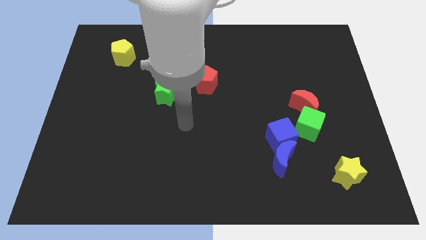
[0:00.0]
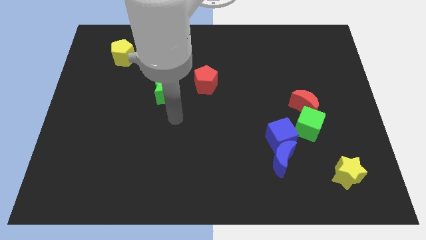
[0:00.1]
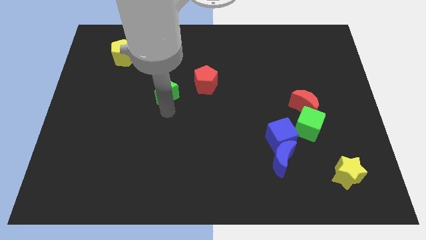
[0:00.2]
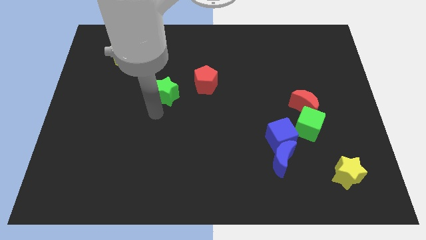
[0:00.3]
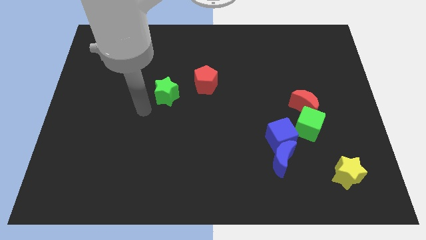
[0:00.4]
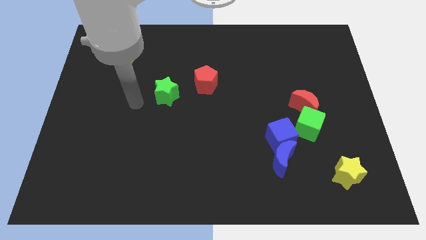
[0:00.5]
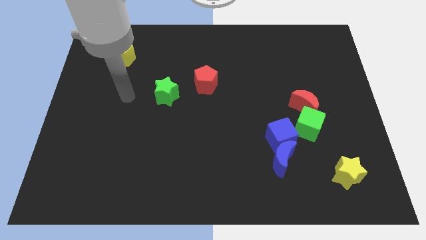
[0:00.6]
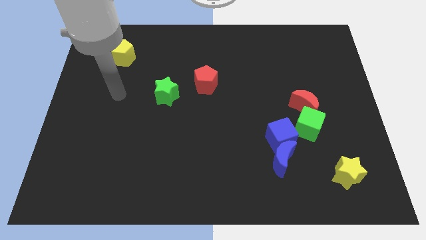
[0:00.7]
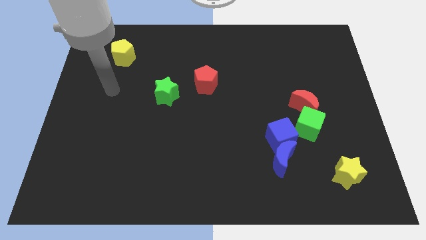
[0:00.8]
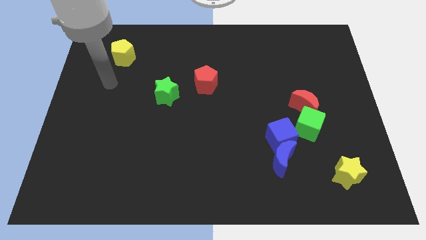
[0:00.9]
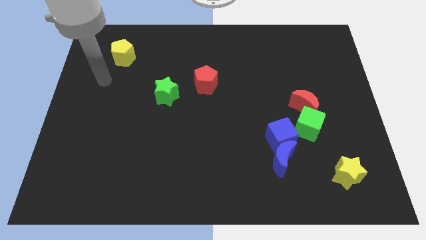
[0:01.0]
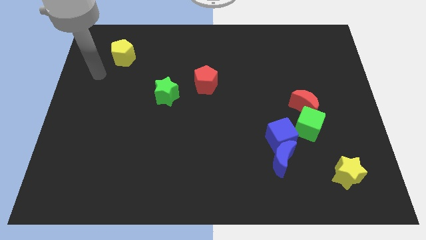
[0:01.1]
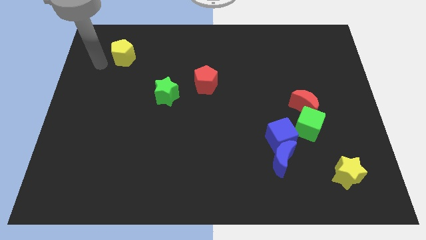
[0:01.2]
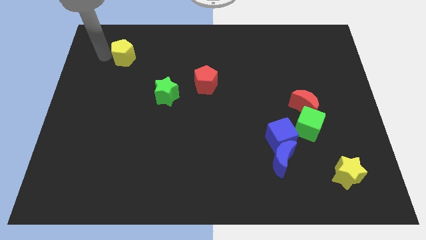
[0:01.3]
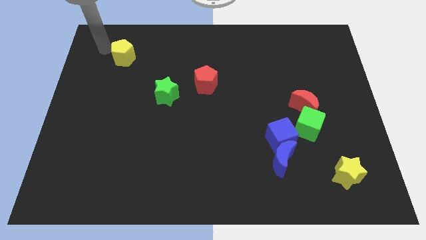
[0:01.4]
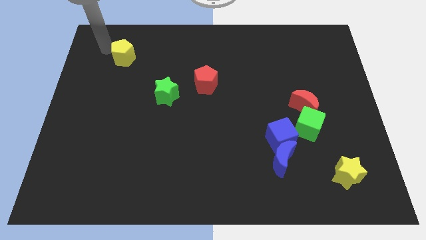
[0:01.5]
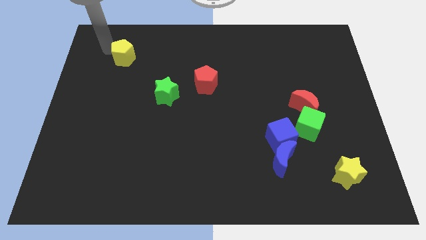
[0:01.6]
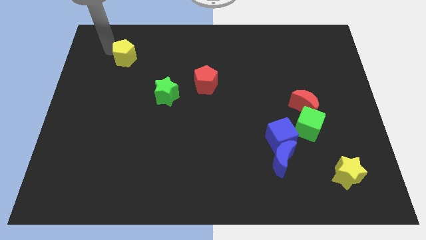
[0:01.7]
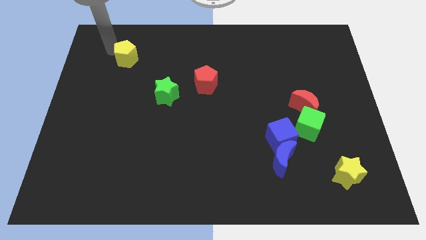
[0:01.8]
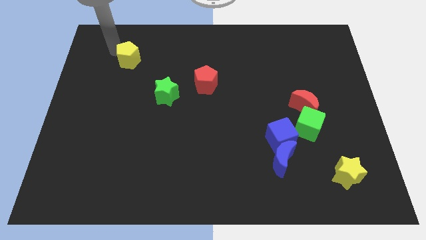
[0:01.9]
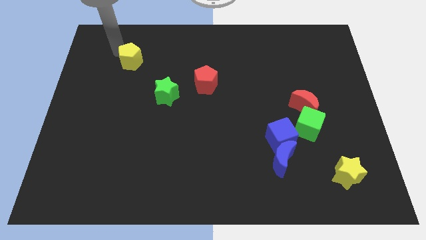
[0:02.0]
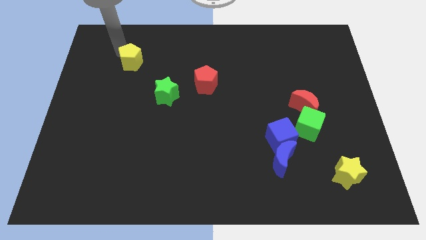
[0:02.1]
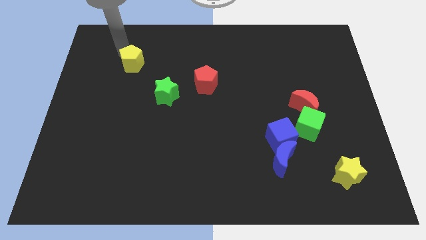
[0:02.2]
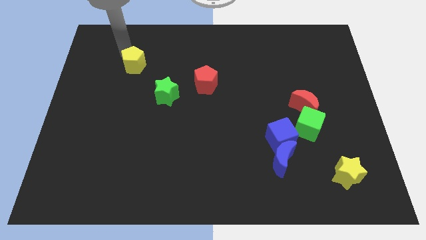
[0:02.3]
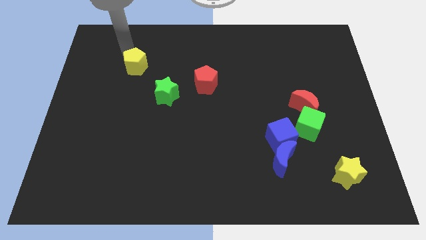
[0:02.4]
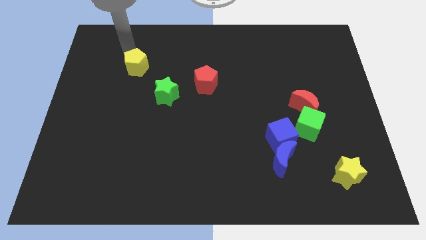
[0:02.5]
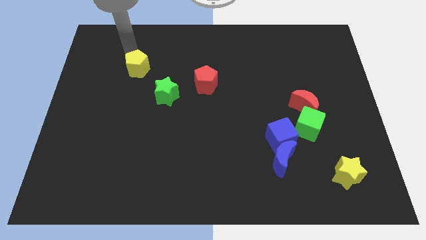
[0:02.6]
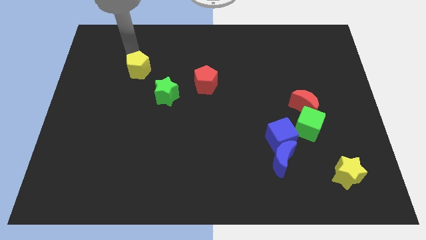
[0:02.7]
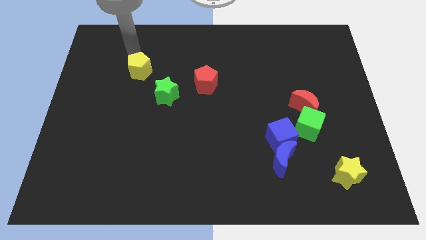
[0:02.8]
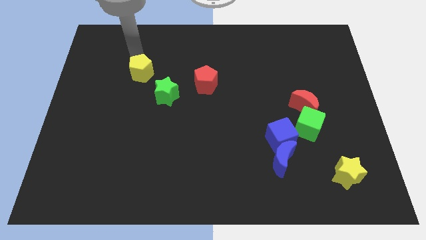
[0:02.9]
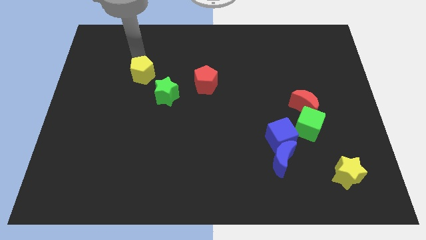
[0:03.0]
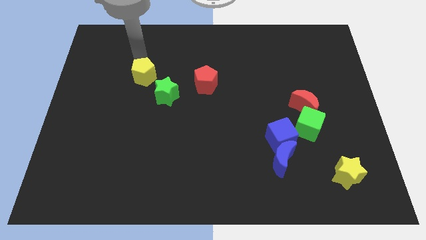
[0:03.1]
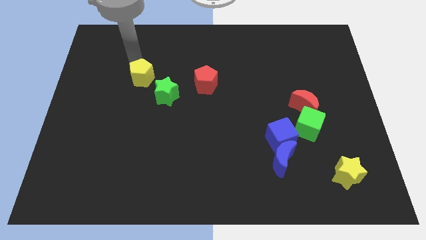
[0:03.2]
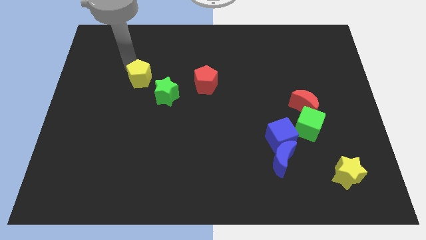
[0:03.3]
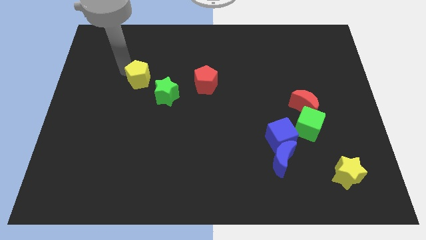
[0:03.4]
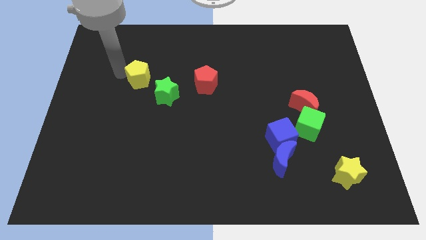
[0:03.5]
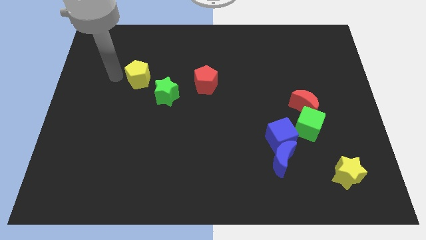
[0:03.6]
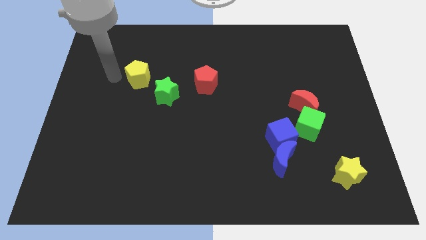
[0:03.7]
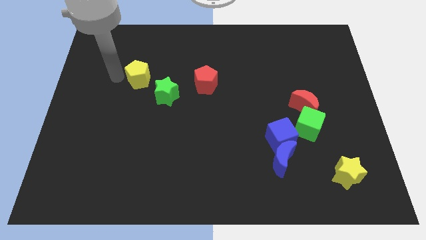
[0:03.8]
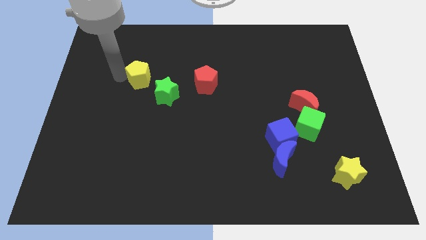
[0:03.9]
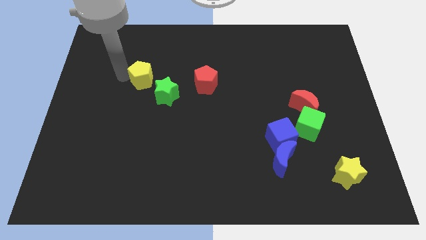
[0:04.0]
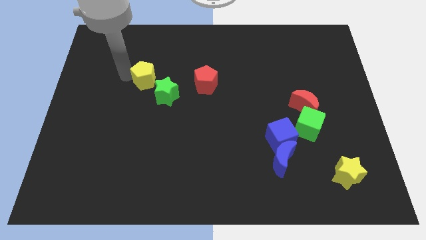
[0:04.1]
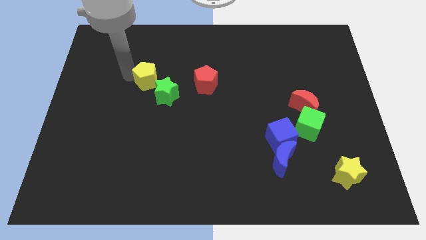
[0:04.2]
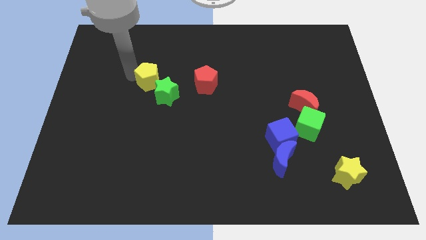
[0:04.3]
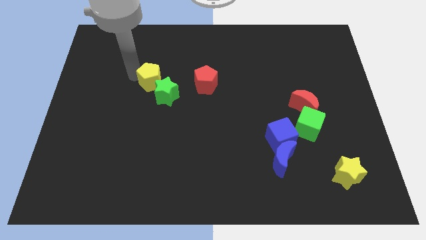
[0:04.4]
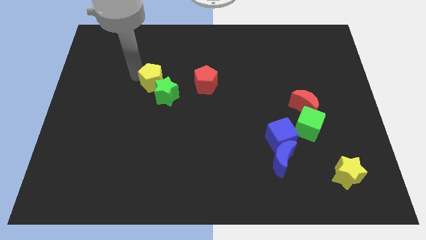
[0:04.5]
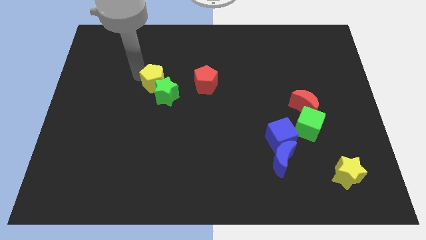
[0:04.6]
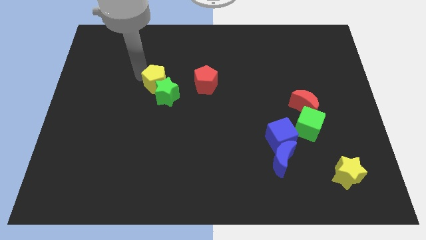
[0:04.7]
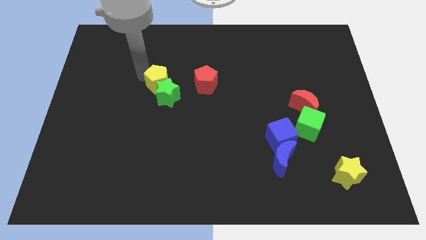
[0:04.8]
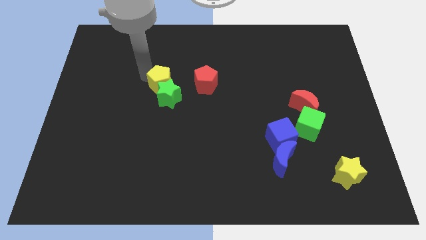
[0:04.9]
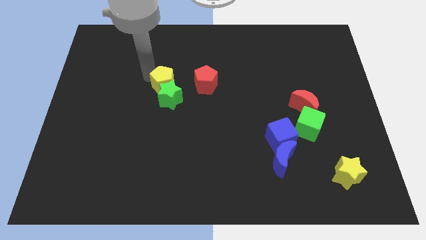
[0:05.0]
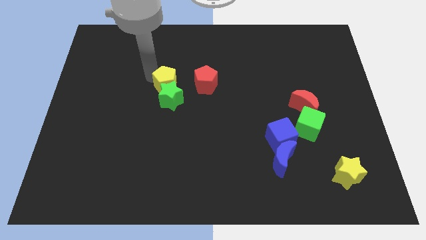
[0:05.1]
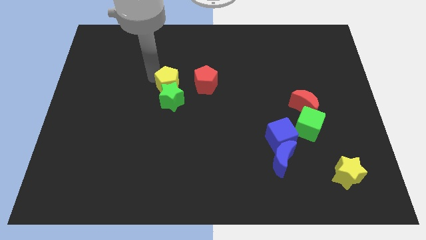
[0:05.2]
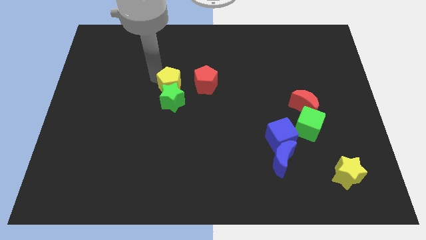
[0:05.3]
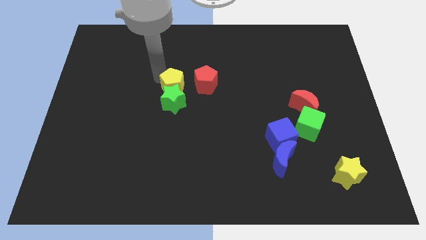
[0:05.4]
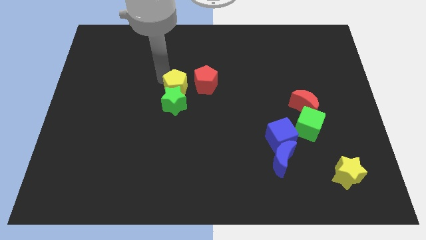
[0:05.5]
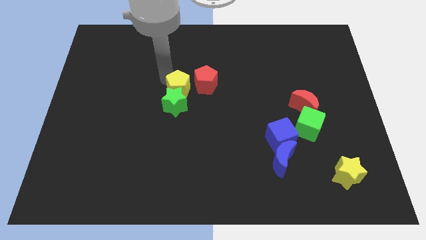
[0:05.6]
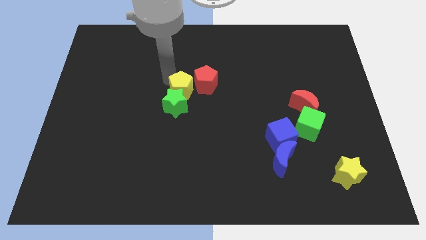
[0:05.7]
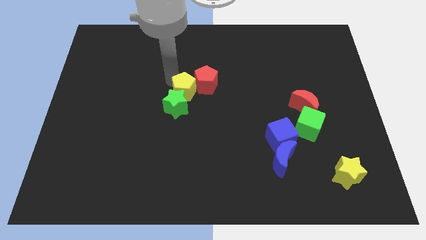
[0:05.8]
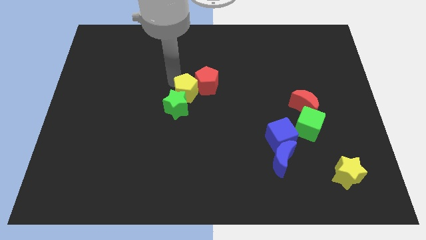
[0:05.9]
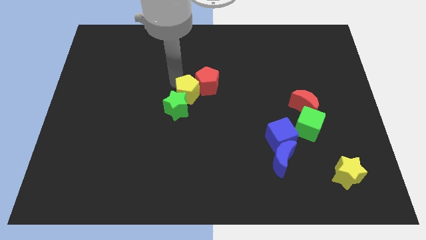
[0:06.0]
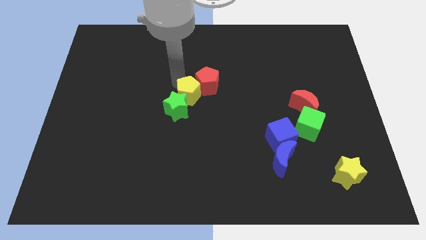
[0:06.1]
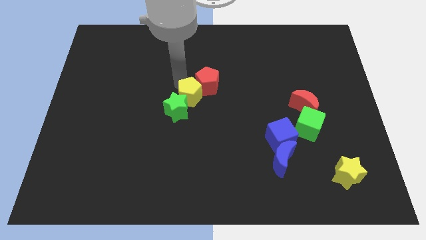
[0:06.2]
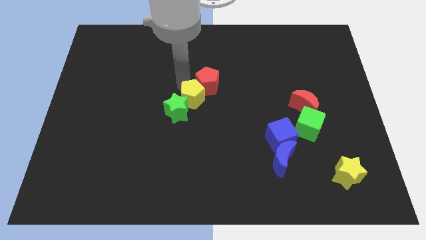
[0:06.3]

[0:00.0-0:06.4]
put the yellow pentagon right of the green star

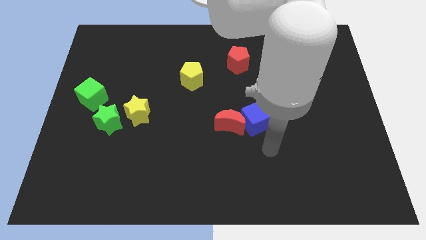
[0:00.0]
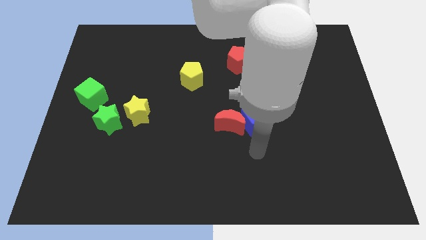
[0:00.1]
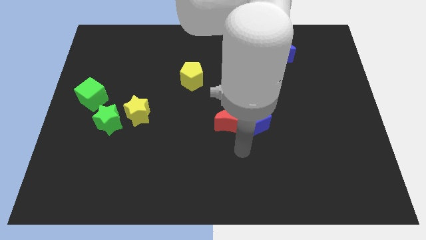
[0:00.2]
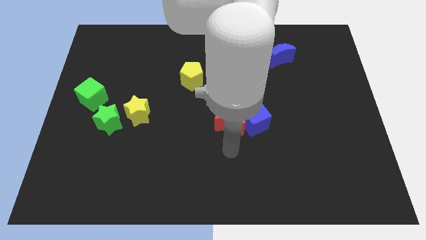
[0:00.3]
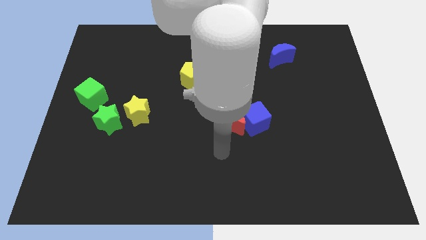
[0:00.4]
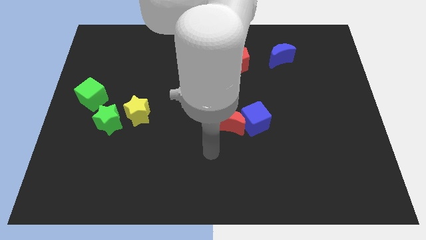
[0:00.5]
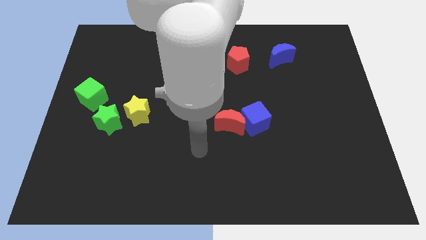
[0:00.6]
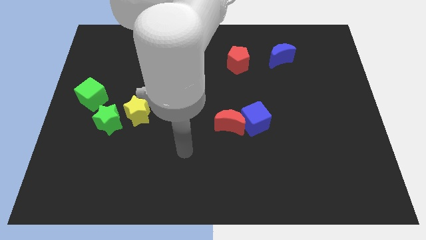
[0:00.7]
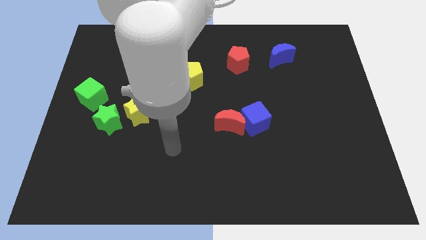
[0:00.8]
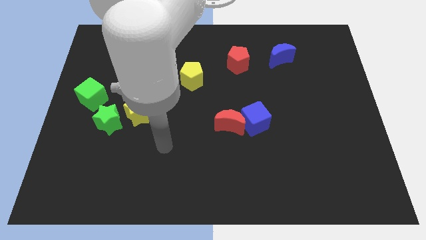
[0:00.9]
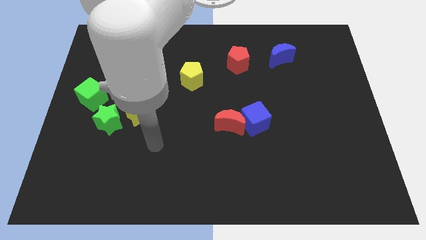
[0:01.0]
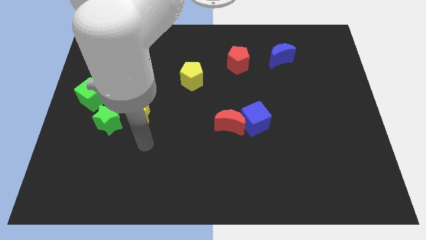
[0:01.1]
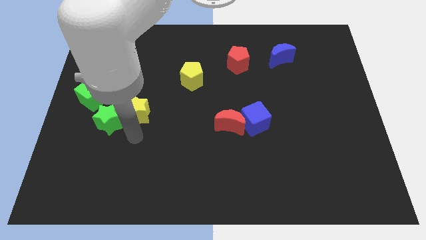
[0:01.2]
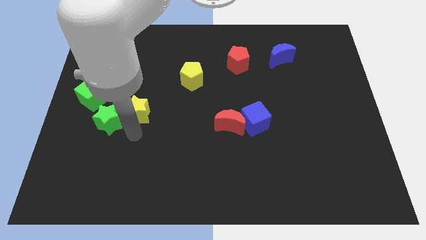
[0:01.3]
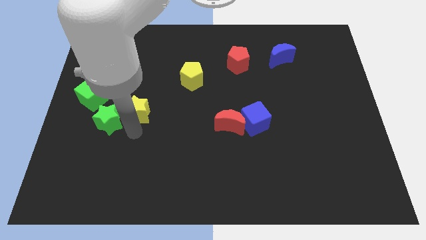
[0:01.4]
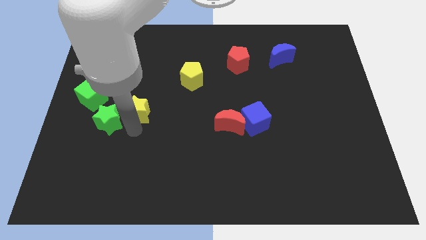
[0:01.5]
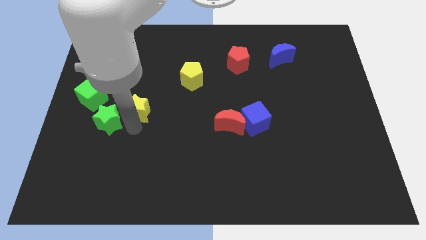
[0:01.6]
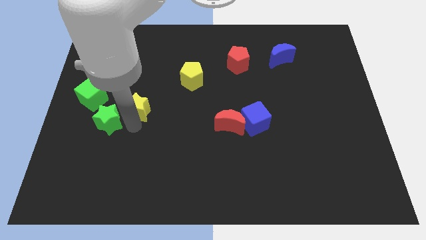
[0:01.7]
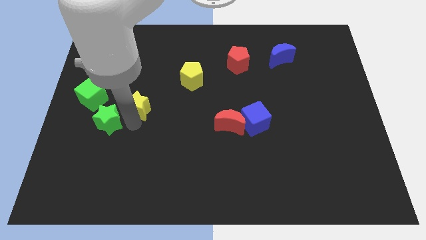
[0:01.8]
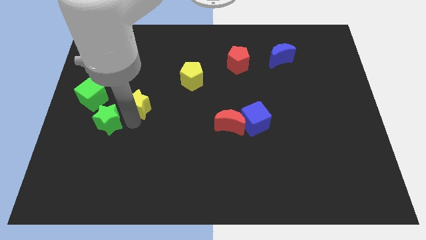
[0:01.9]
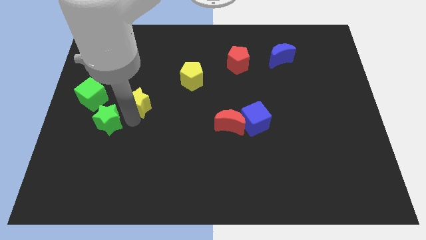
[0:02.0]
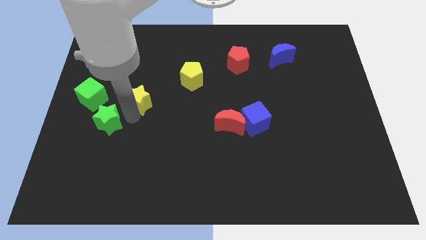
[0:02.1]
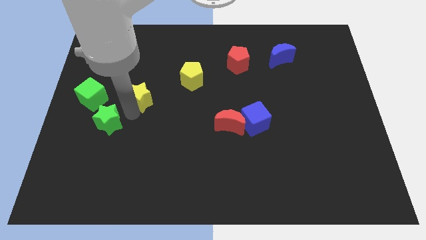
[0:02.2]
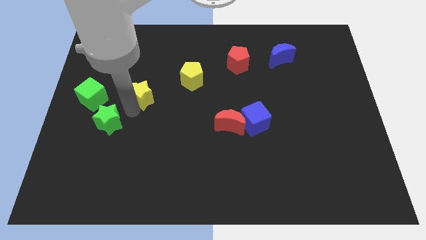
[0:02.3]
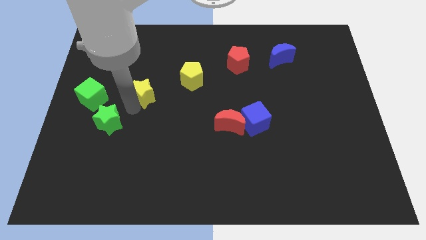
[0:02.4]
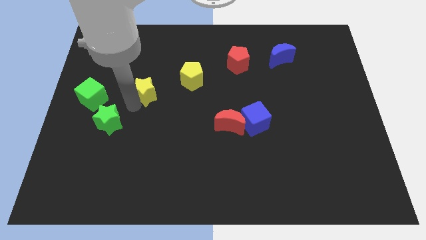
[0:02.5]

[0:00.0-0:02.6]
move the yellow star to the left side of the yellow pentagon
